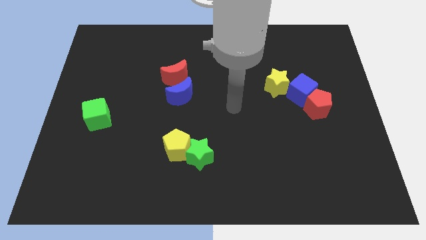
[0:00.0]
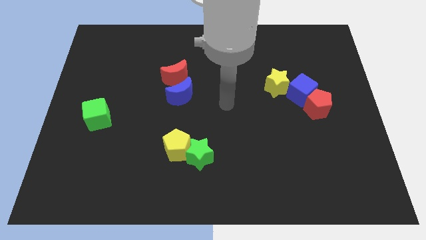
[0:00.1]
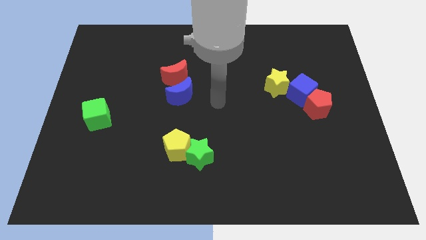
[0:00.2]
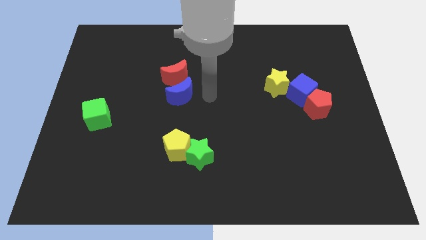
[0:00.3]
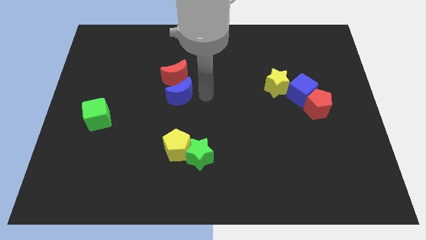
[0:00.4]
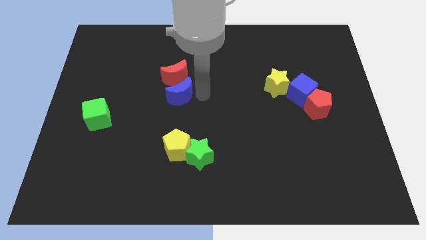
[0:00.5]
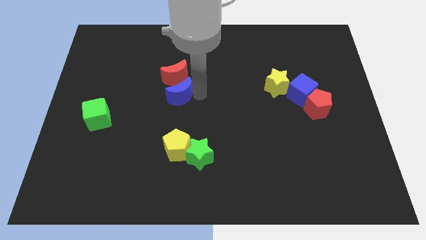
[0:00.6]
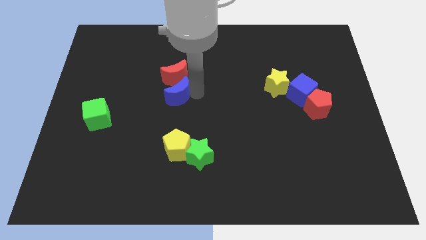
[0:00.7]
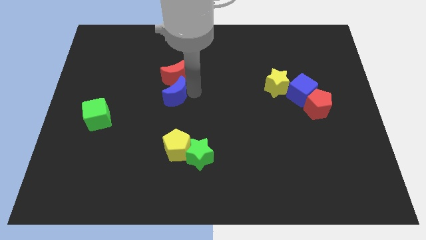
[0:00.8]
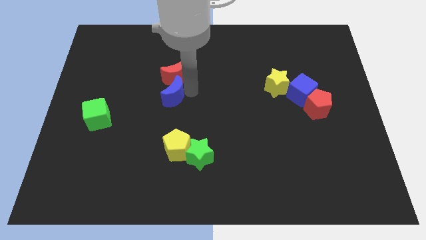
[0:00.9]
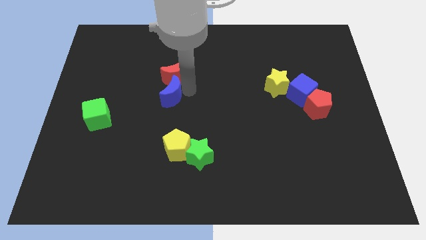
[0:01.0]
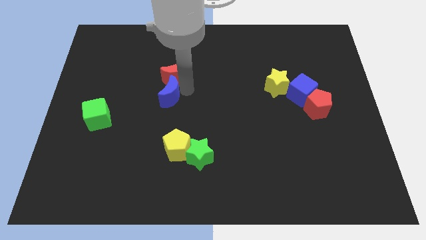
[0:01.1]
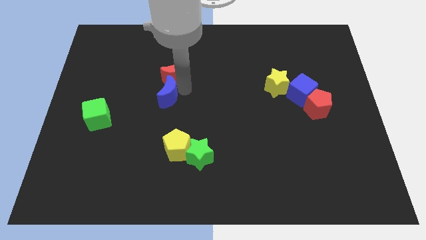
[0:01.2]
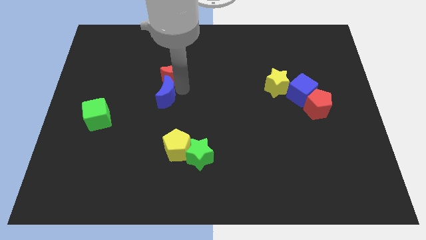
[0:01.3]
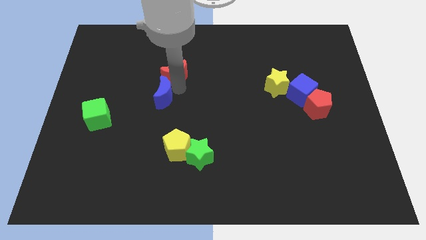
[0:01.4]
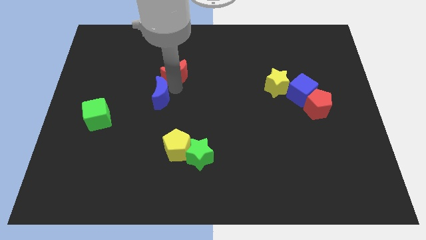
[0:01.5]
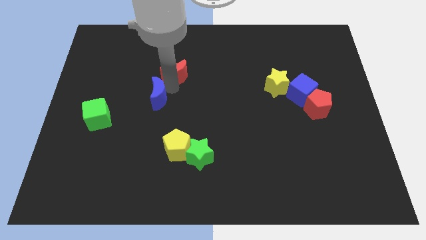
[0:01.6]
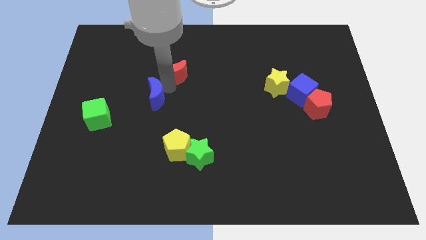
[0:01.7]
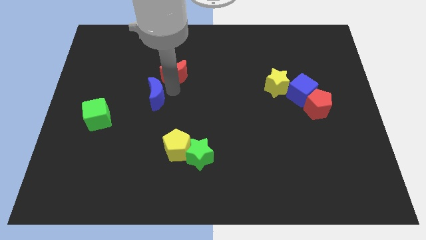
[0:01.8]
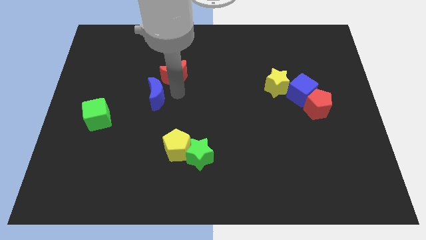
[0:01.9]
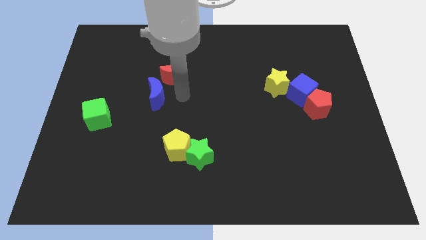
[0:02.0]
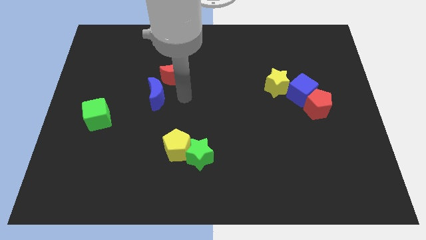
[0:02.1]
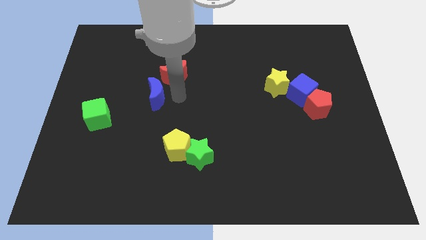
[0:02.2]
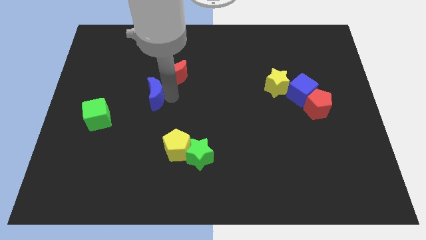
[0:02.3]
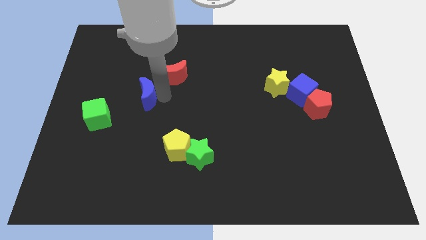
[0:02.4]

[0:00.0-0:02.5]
push the blue moon somewhat to the left

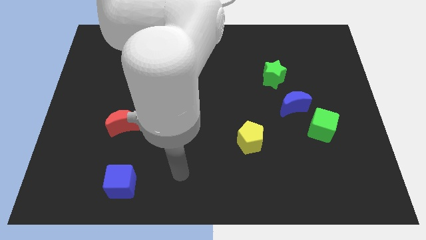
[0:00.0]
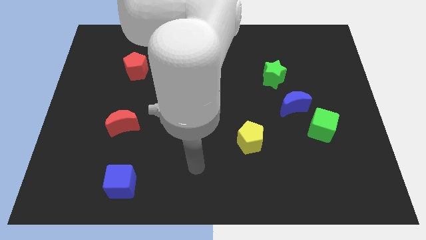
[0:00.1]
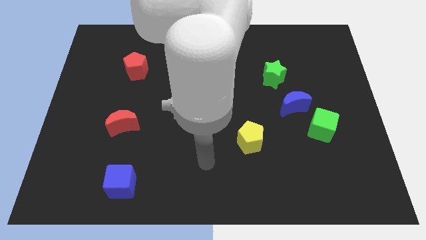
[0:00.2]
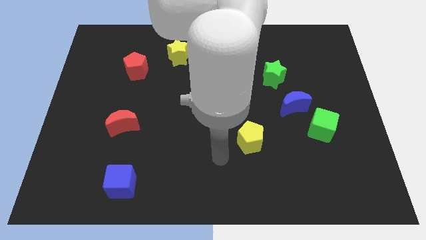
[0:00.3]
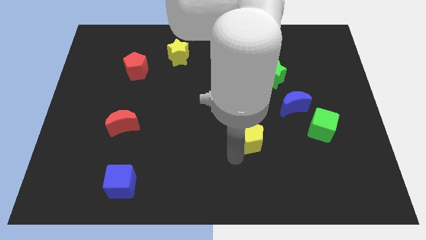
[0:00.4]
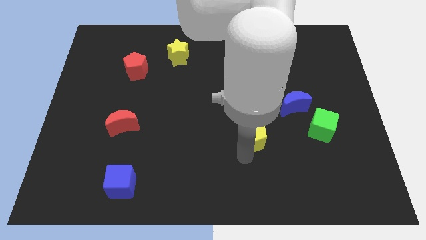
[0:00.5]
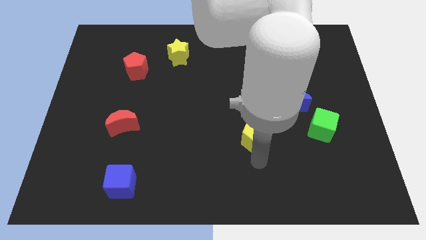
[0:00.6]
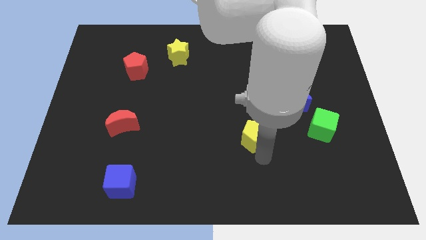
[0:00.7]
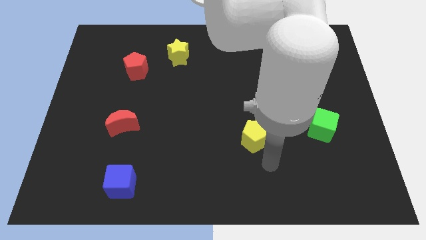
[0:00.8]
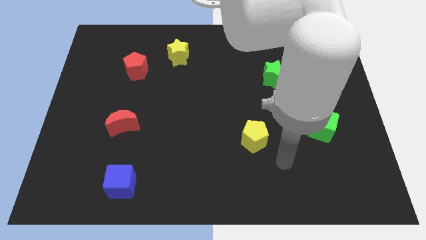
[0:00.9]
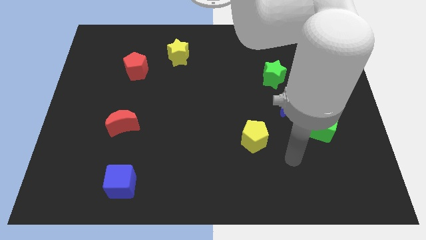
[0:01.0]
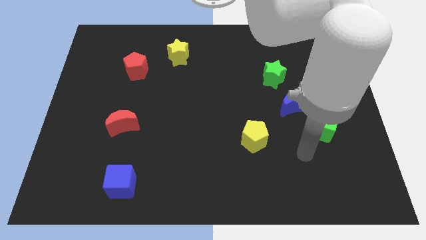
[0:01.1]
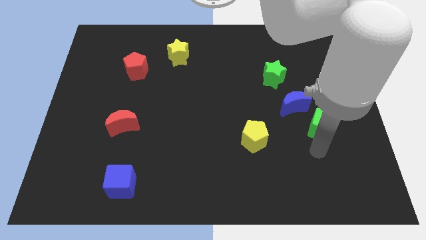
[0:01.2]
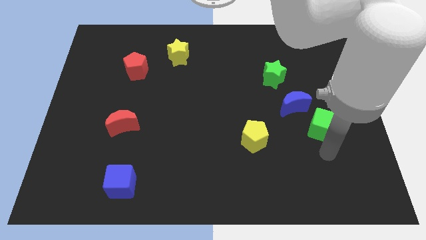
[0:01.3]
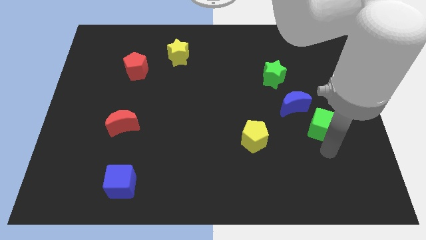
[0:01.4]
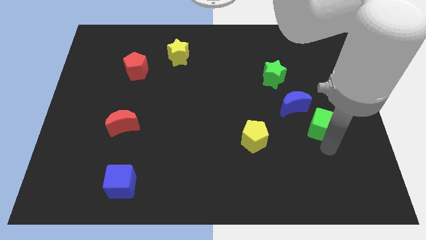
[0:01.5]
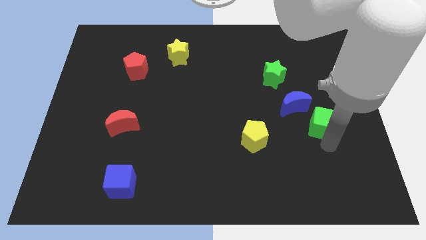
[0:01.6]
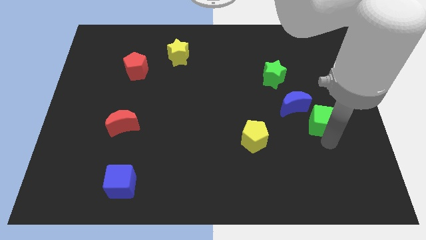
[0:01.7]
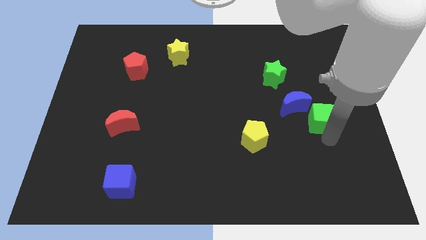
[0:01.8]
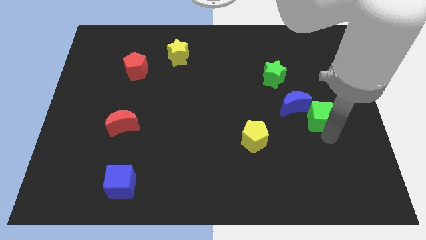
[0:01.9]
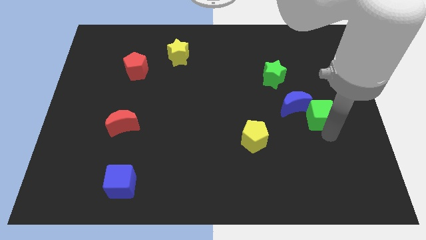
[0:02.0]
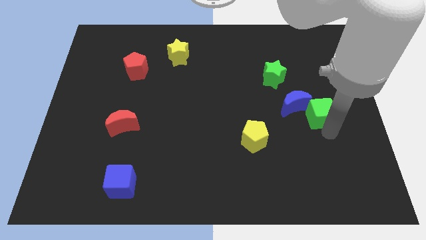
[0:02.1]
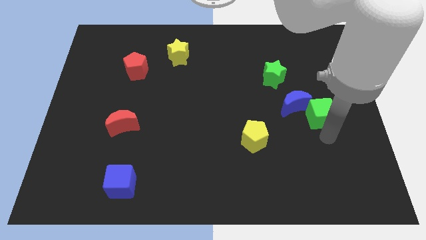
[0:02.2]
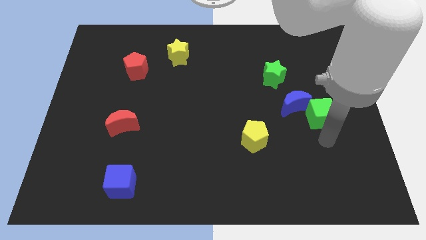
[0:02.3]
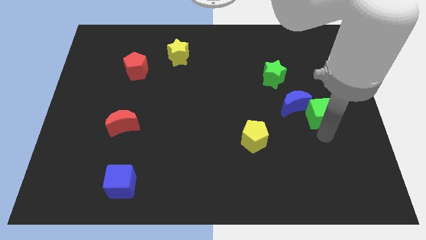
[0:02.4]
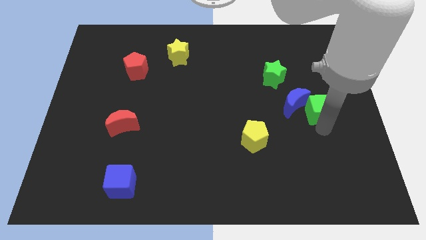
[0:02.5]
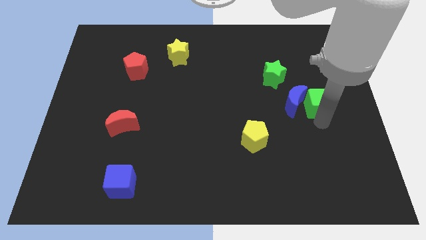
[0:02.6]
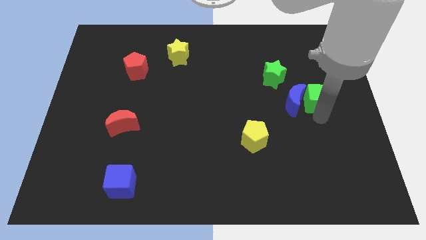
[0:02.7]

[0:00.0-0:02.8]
slightly push the green cube up

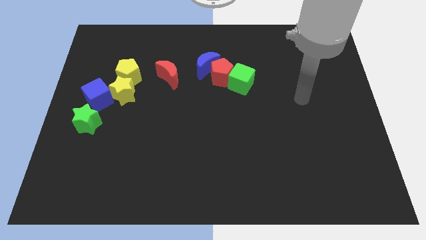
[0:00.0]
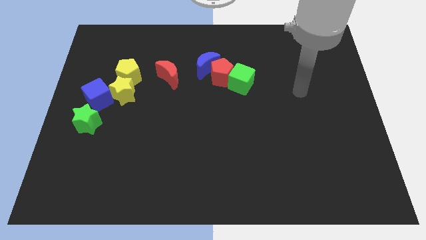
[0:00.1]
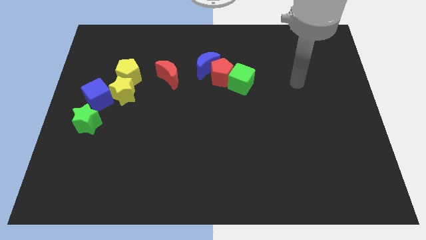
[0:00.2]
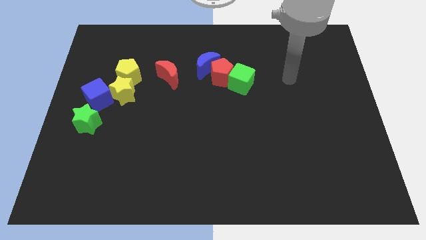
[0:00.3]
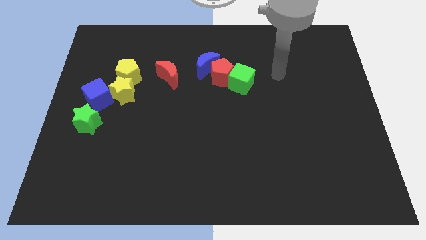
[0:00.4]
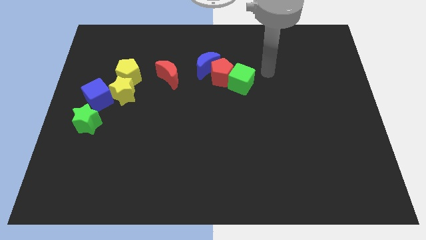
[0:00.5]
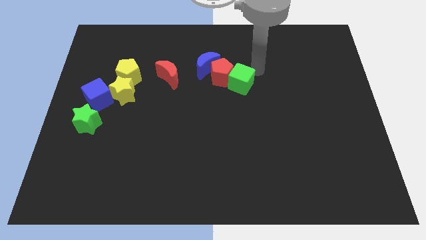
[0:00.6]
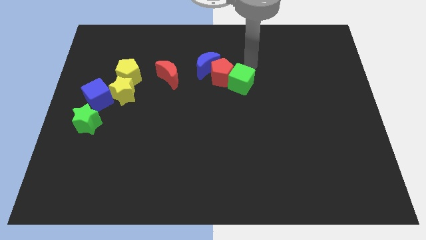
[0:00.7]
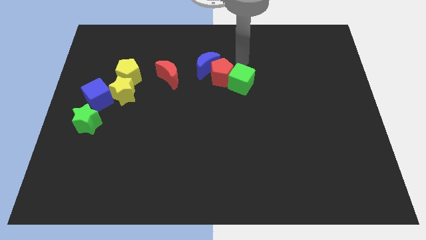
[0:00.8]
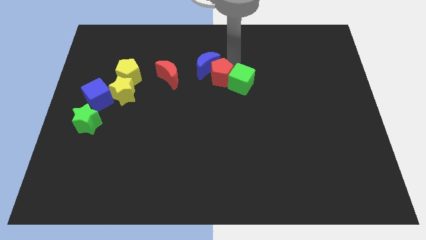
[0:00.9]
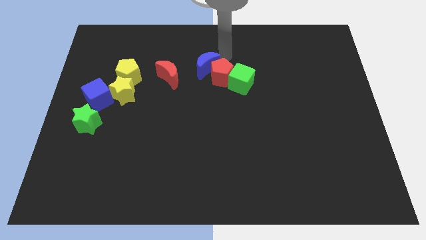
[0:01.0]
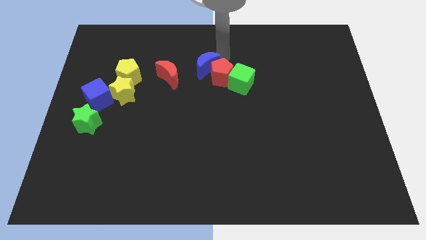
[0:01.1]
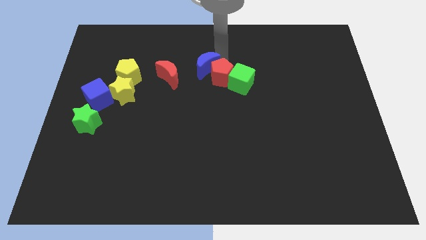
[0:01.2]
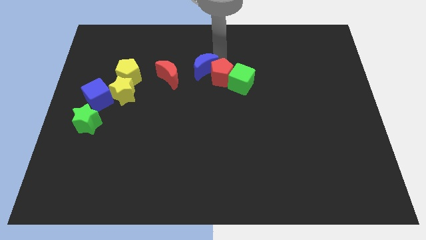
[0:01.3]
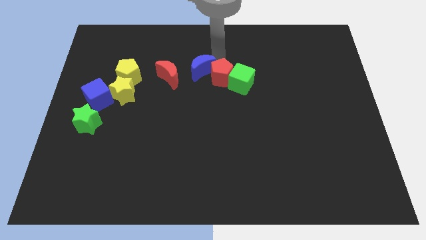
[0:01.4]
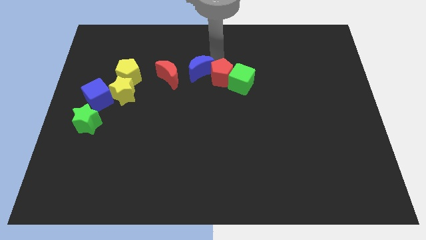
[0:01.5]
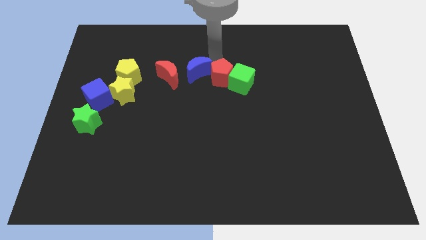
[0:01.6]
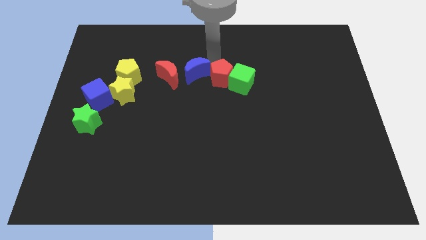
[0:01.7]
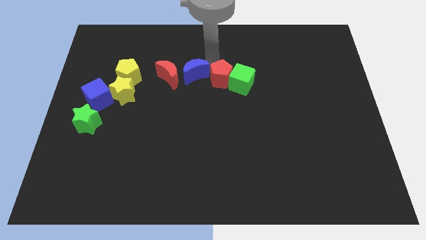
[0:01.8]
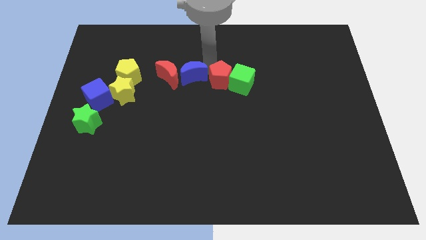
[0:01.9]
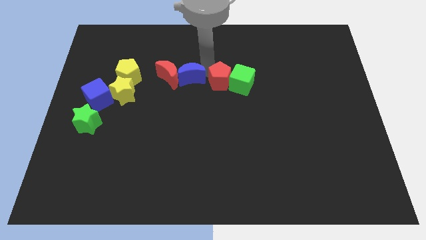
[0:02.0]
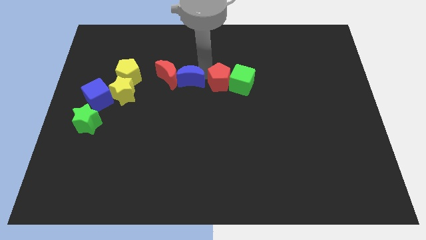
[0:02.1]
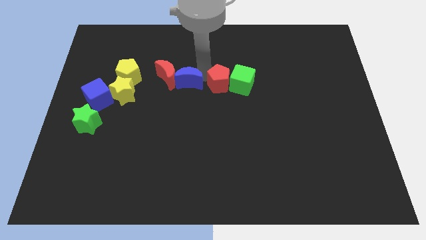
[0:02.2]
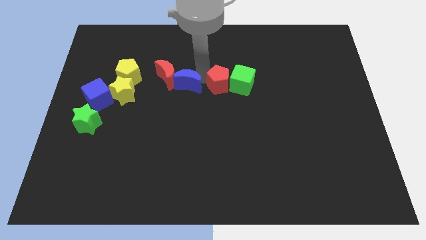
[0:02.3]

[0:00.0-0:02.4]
move the blue moon downwards and left diagonally somewhat

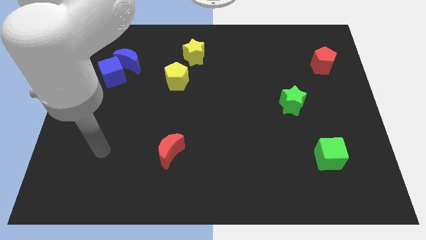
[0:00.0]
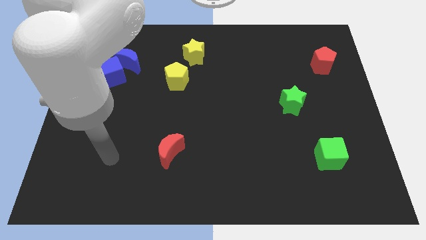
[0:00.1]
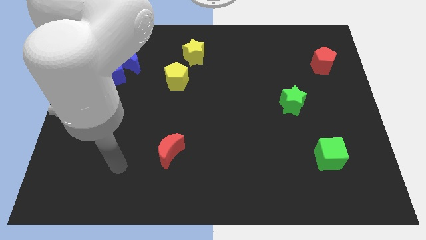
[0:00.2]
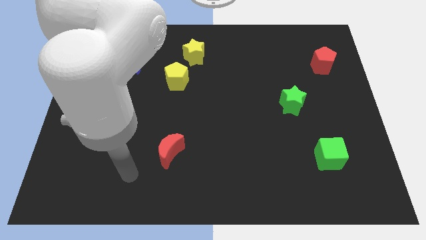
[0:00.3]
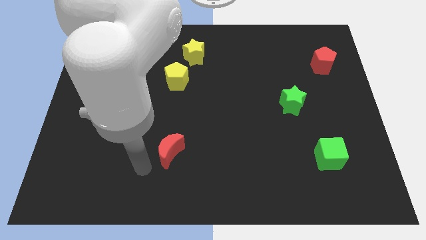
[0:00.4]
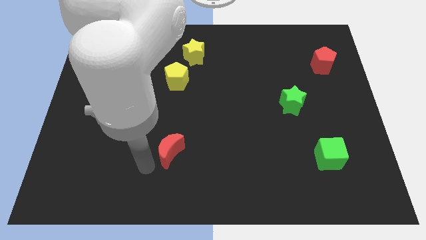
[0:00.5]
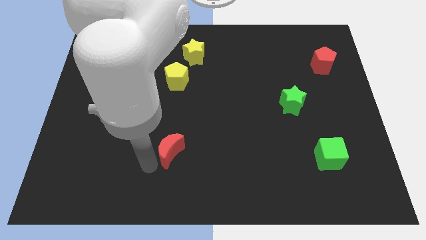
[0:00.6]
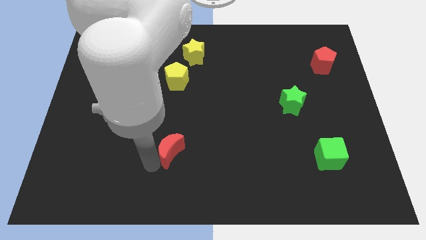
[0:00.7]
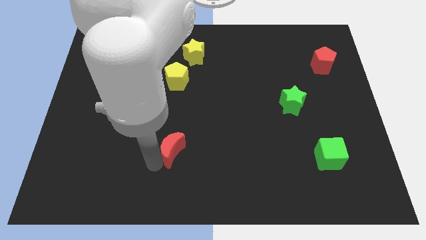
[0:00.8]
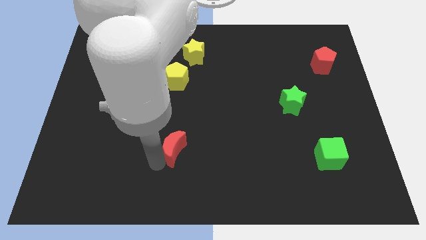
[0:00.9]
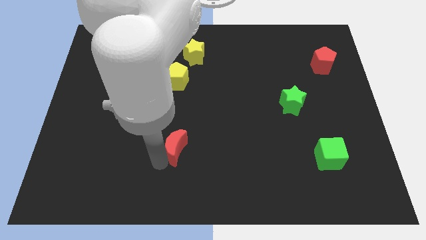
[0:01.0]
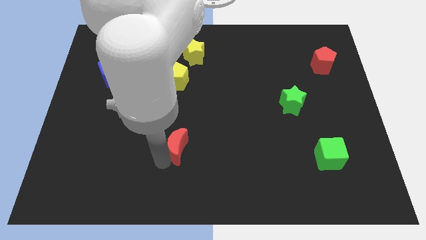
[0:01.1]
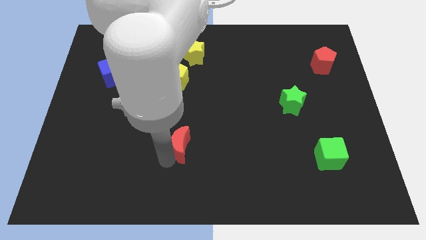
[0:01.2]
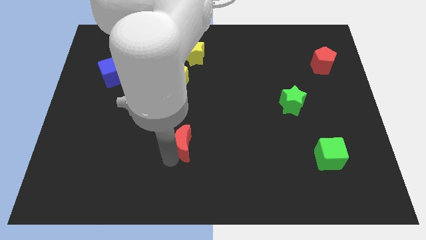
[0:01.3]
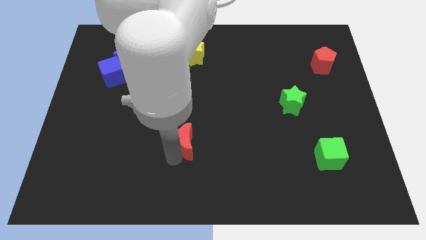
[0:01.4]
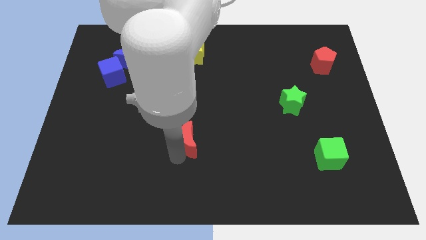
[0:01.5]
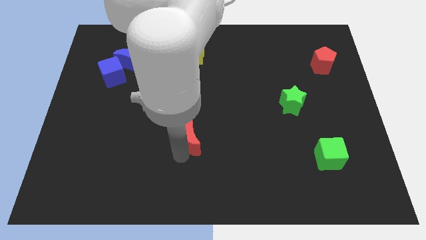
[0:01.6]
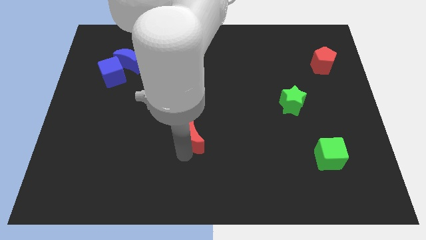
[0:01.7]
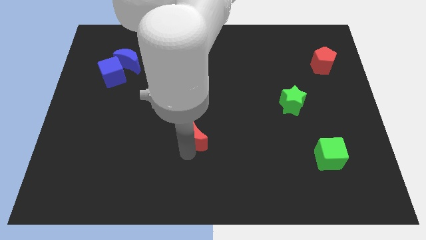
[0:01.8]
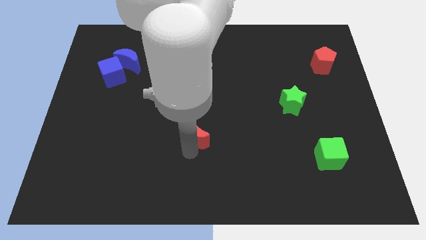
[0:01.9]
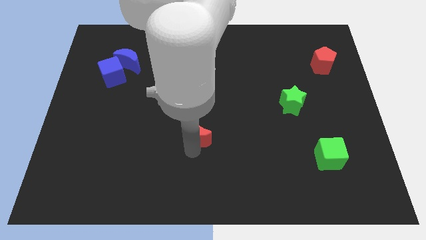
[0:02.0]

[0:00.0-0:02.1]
slide the red moon up and right diagonally a little
